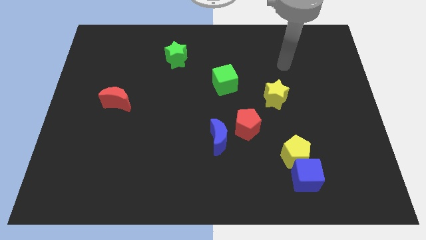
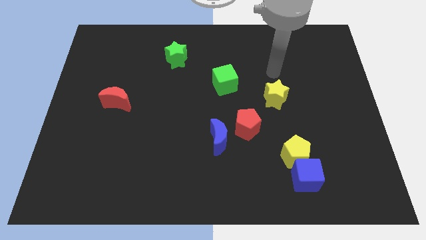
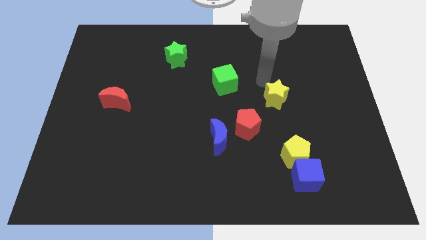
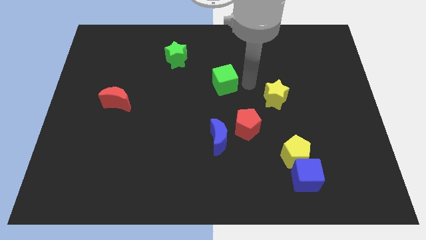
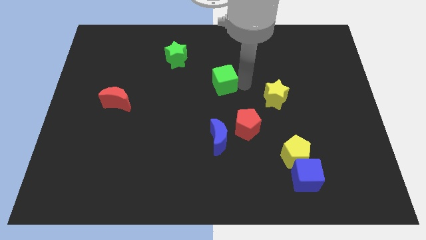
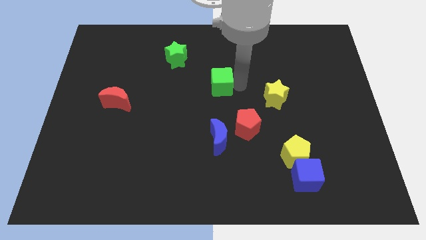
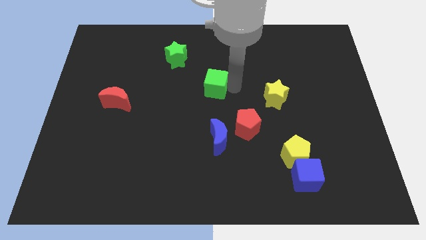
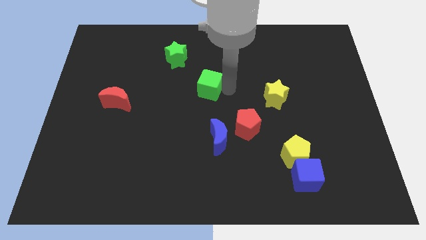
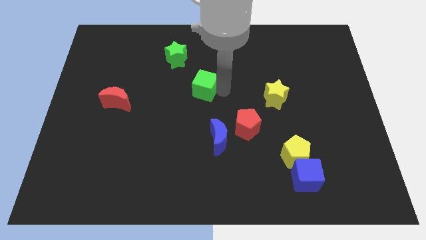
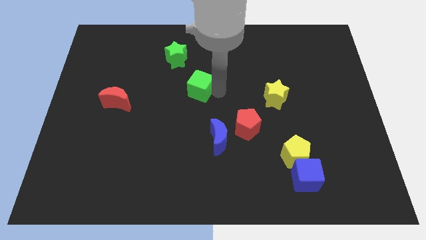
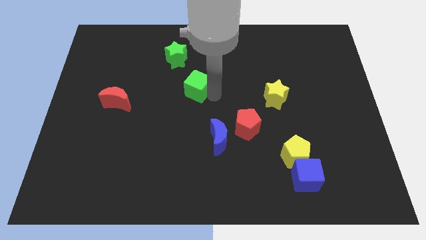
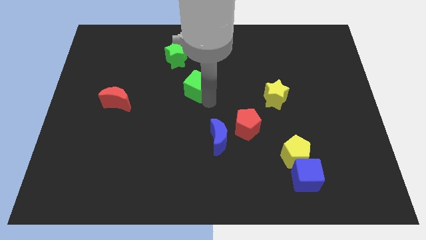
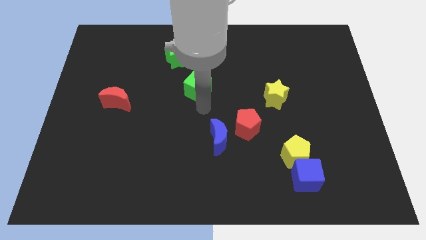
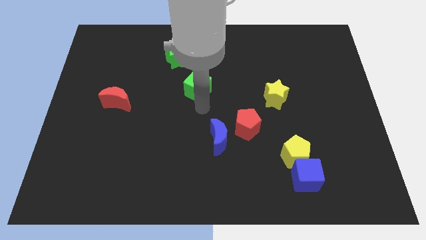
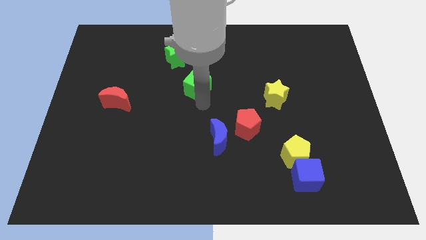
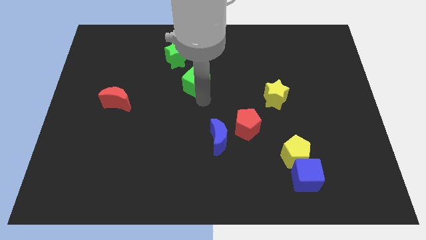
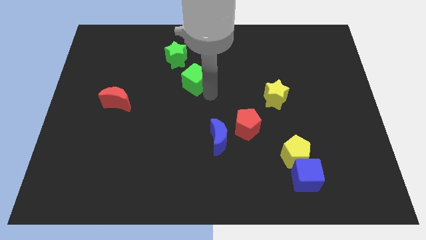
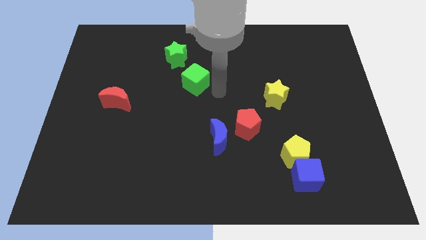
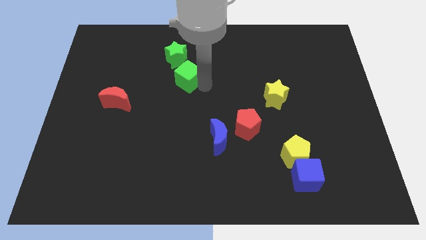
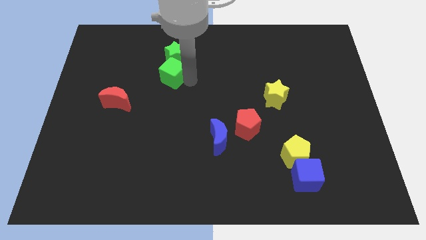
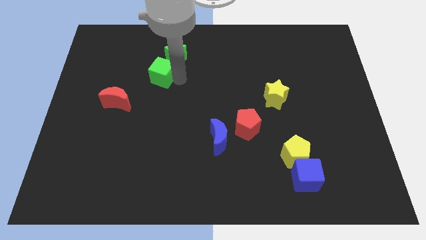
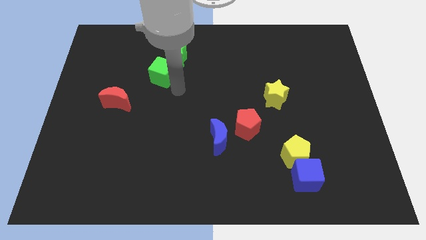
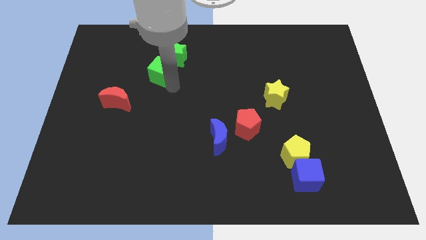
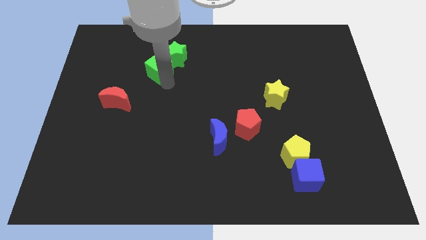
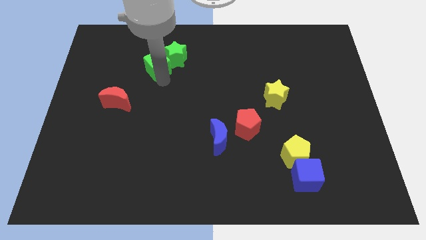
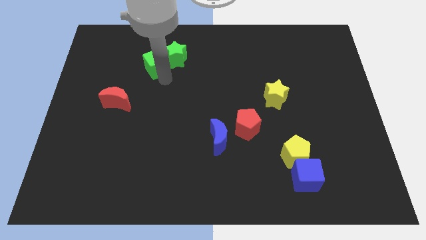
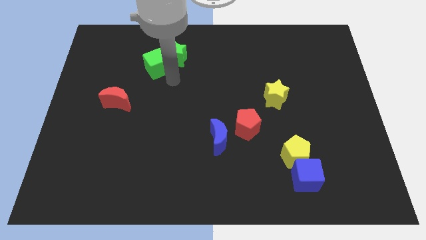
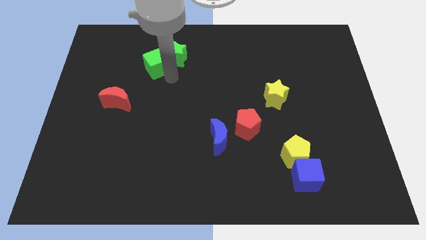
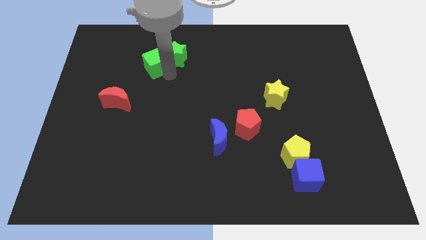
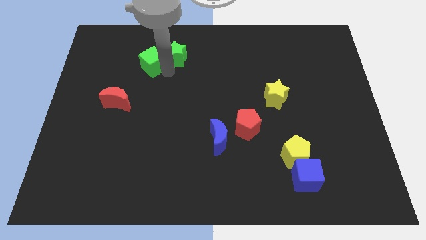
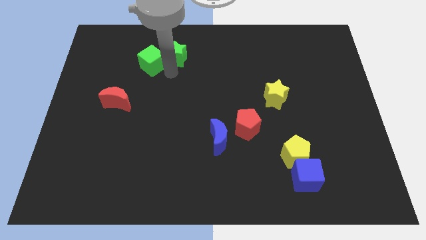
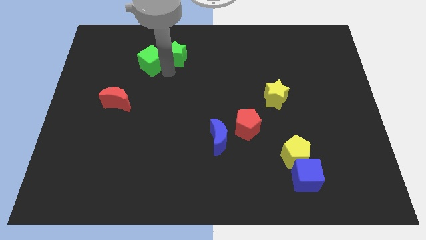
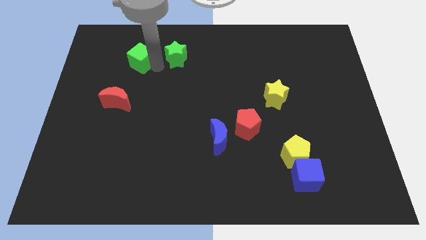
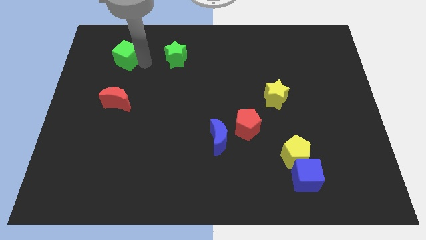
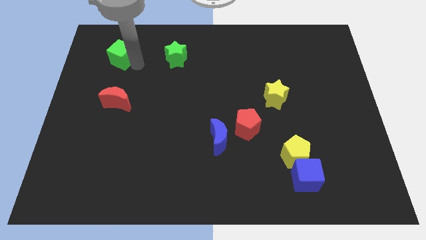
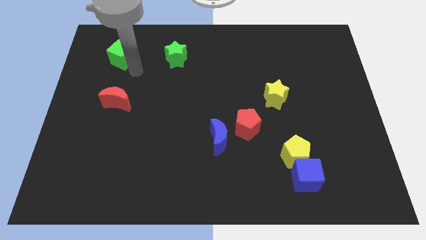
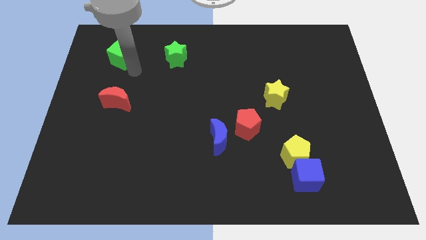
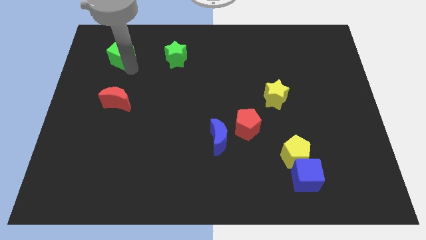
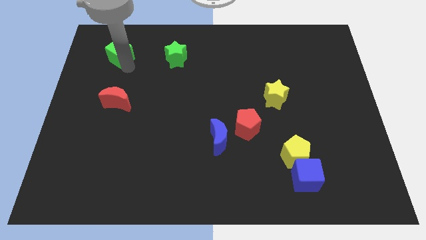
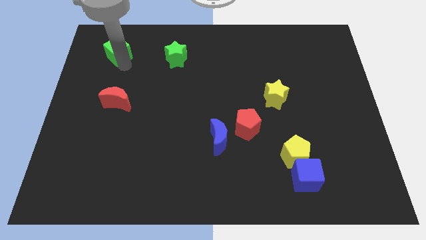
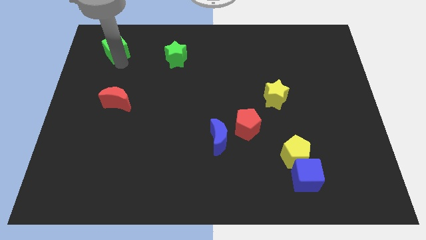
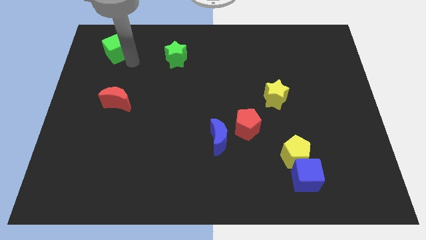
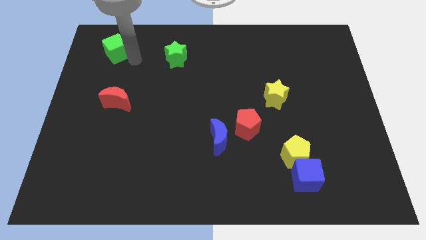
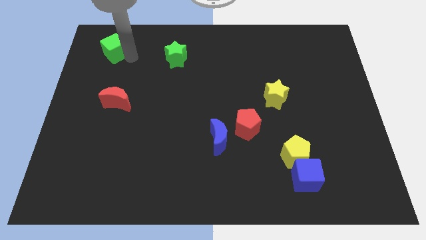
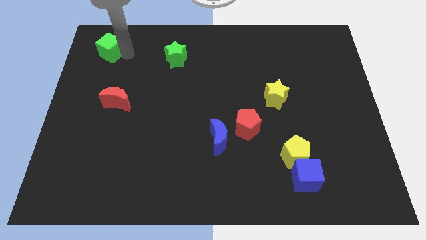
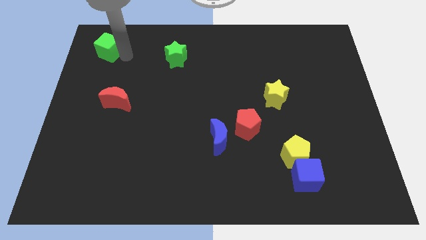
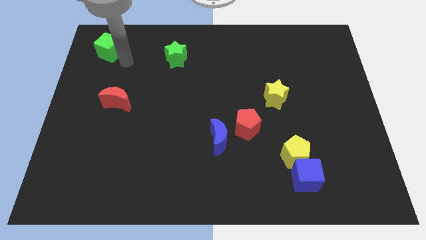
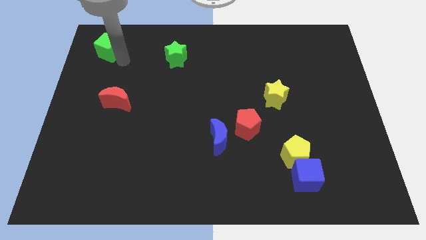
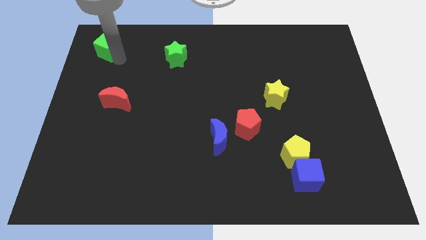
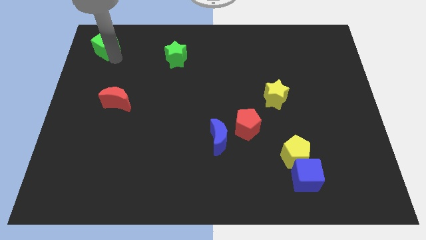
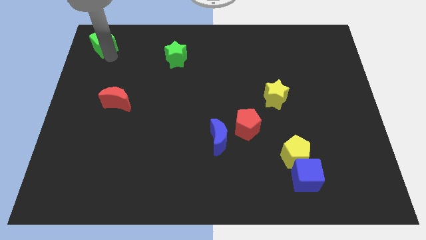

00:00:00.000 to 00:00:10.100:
push the green cube to the top left corner

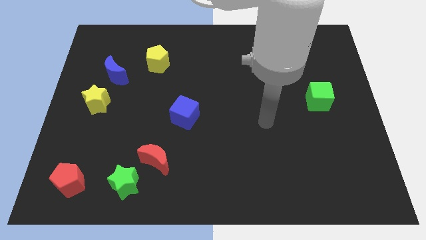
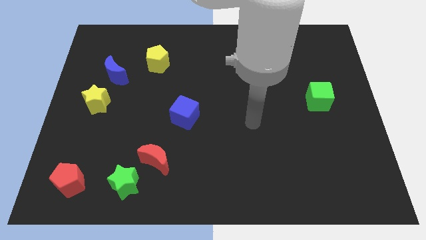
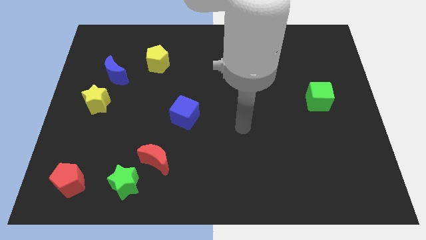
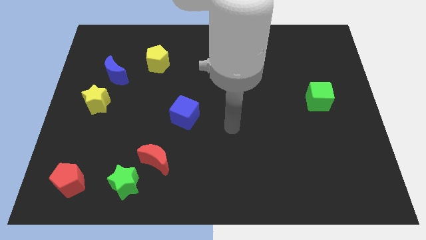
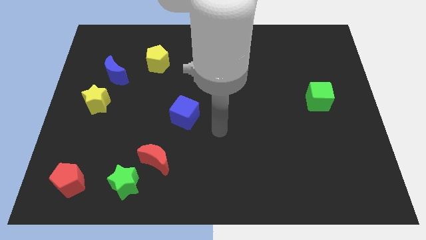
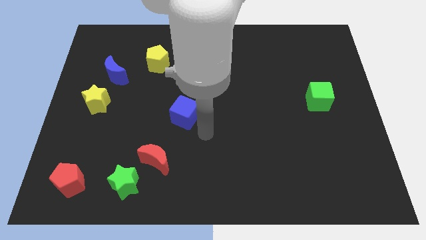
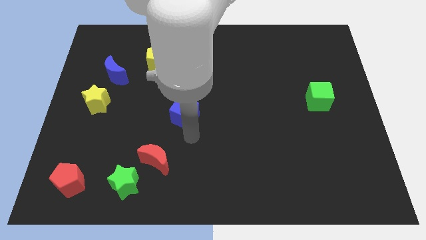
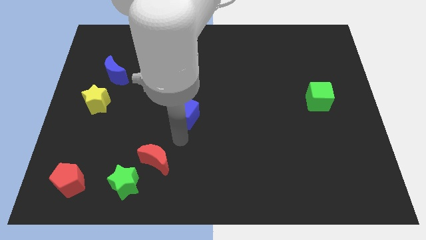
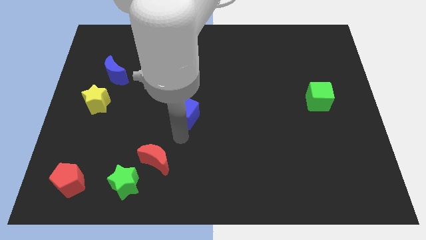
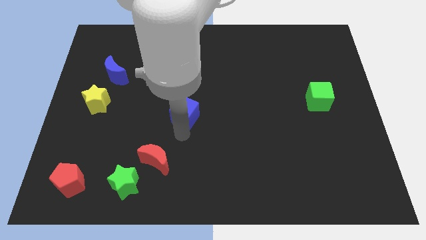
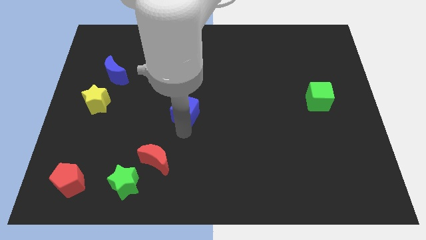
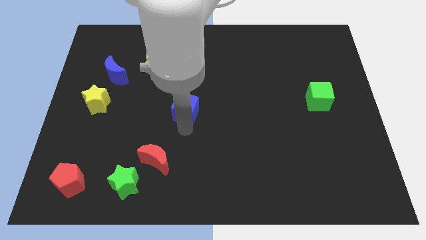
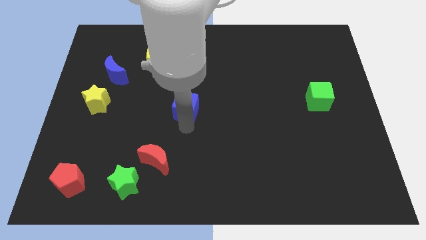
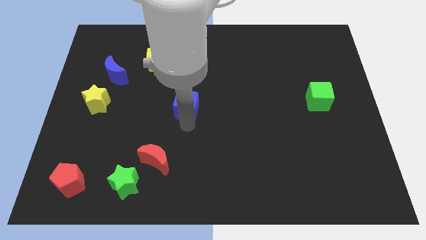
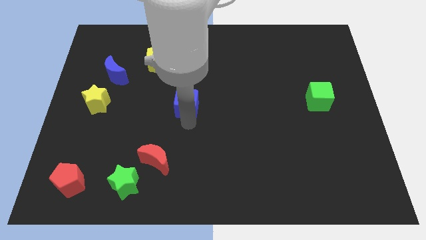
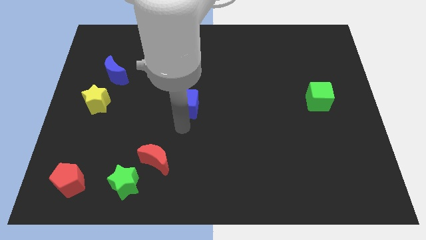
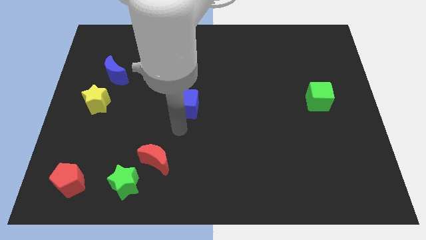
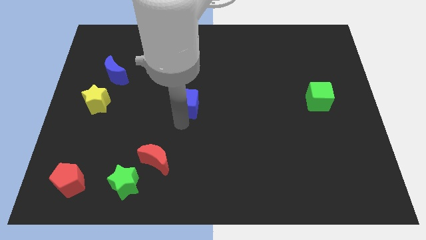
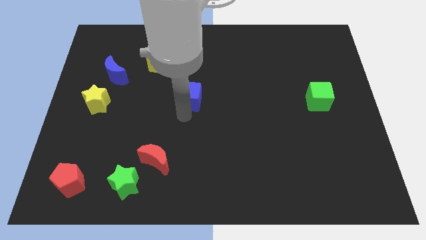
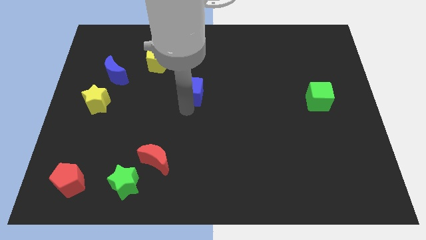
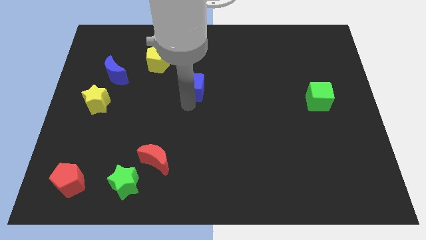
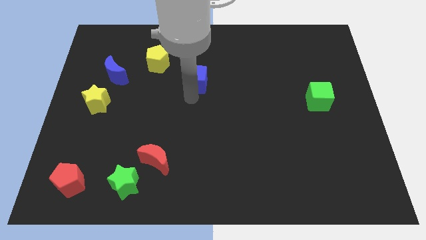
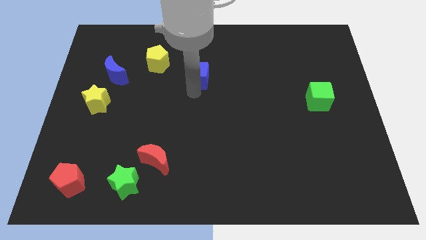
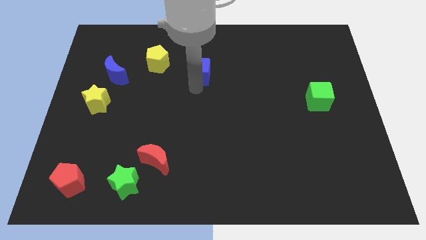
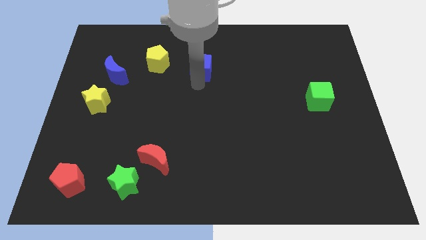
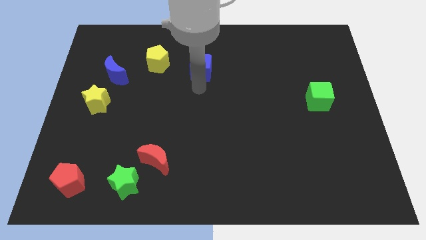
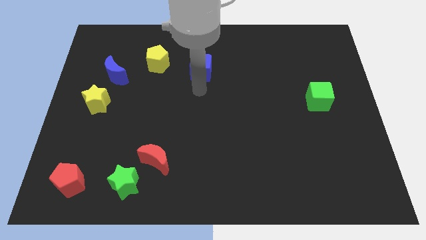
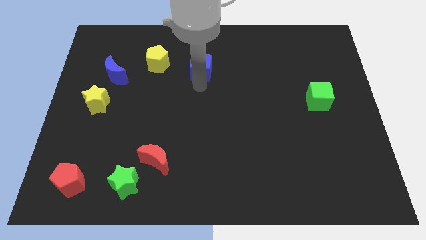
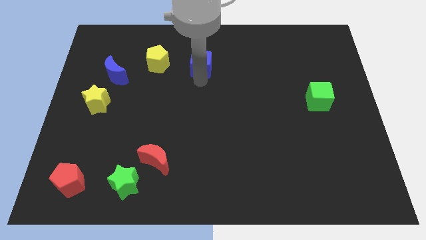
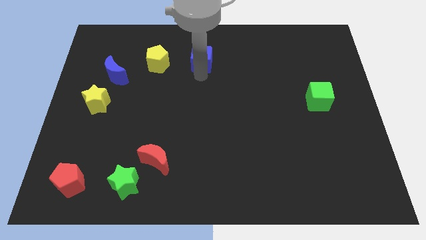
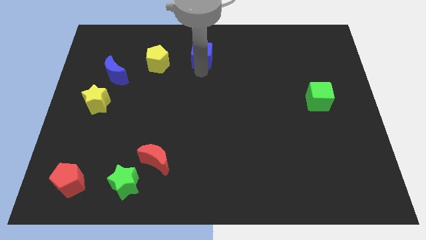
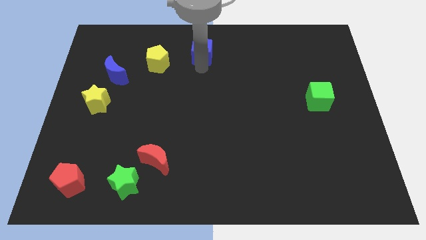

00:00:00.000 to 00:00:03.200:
push the blue cube to the top
